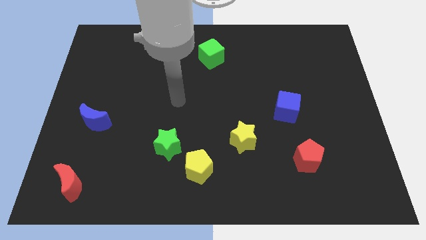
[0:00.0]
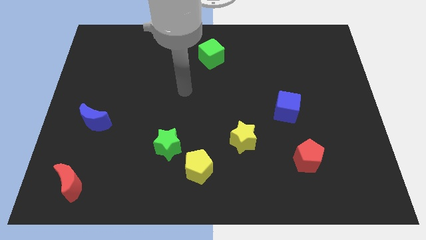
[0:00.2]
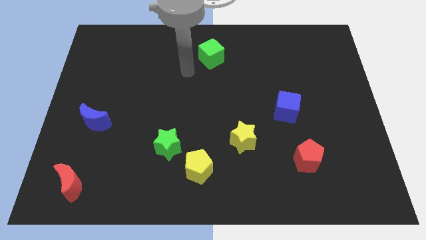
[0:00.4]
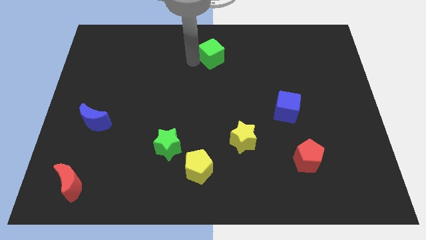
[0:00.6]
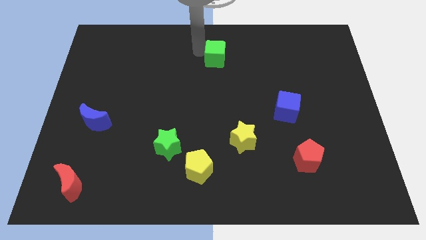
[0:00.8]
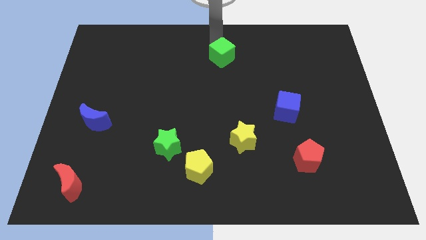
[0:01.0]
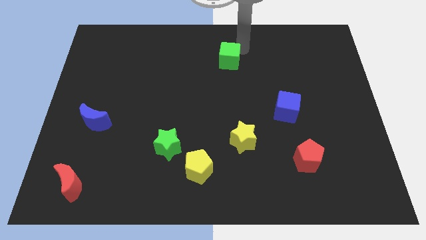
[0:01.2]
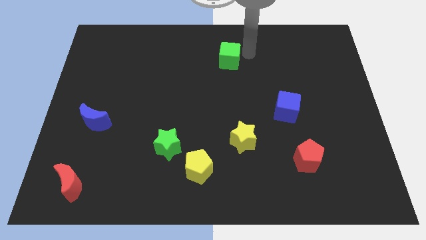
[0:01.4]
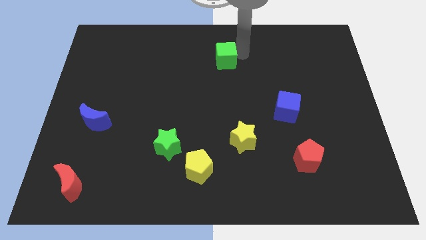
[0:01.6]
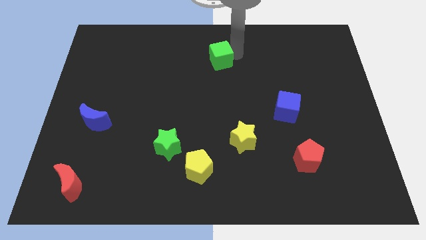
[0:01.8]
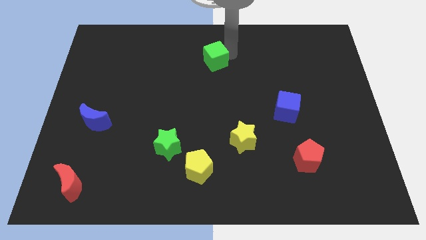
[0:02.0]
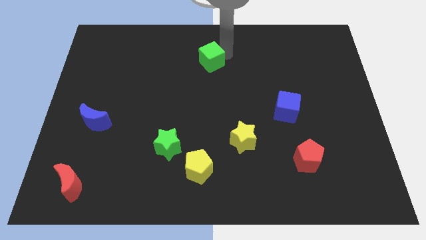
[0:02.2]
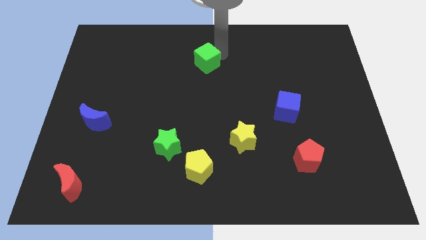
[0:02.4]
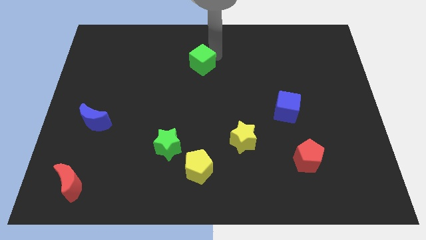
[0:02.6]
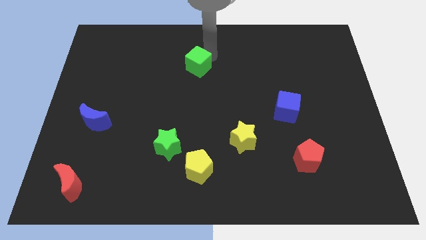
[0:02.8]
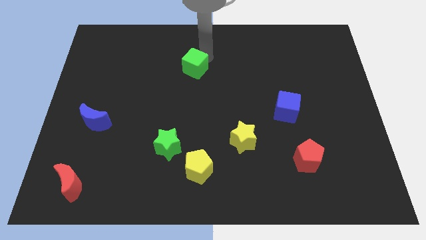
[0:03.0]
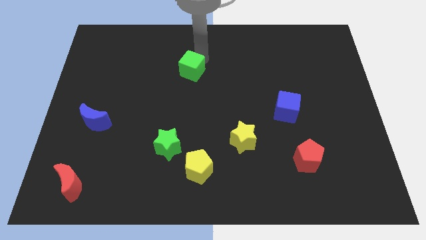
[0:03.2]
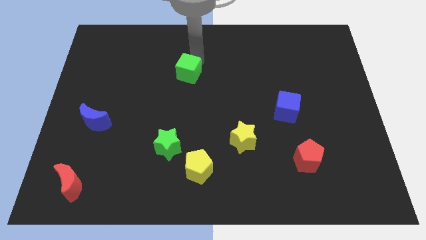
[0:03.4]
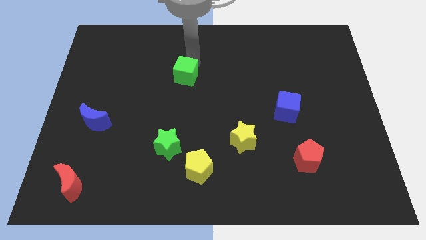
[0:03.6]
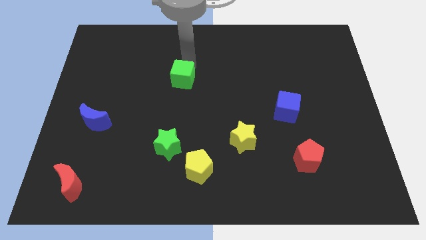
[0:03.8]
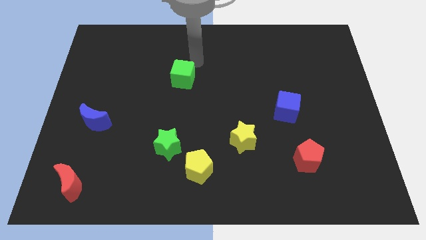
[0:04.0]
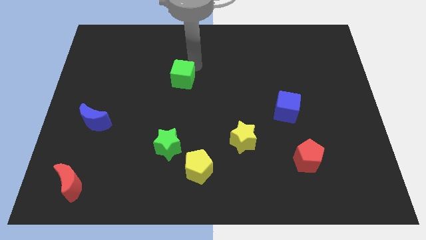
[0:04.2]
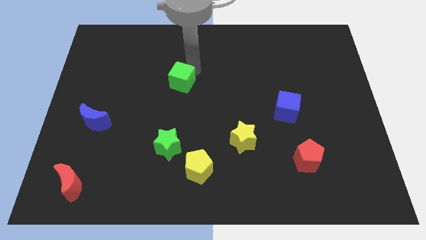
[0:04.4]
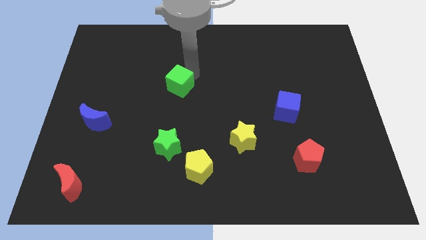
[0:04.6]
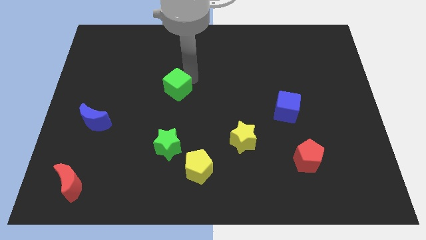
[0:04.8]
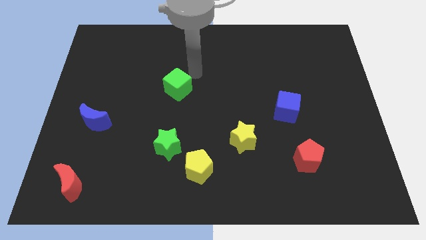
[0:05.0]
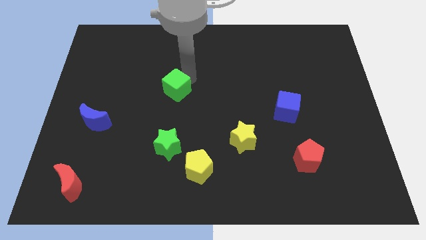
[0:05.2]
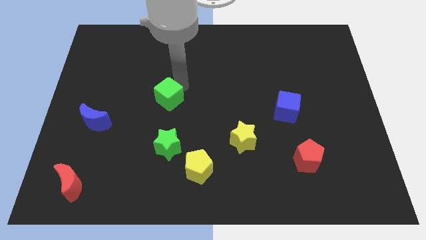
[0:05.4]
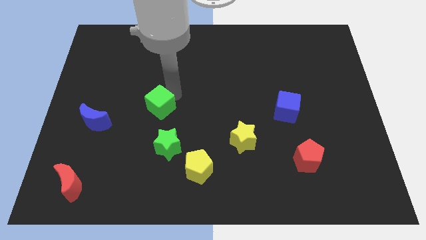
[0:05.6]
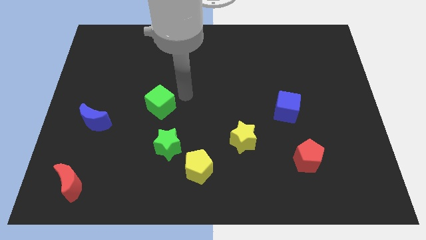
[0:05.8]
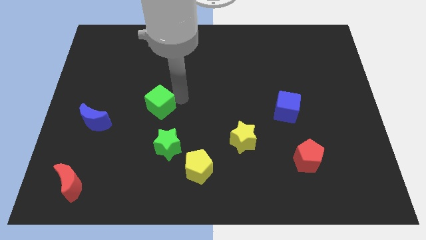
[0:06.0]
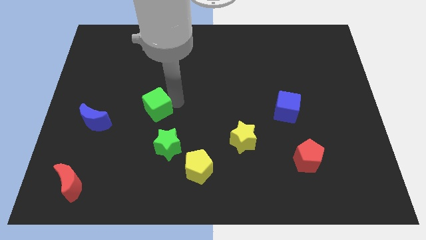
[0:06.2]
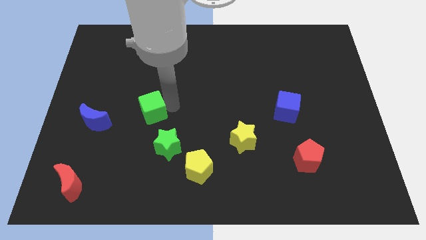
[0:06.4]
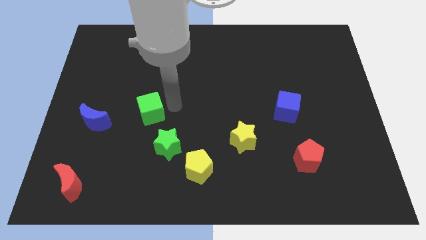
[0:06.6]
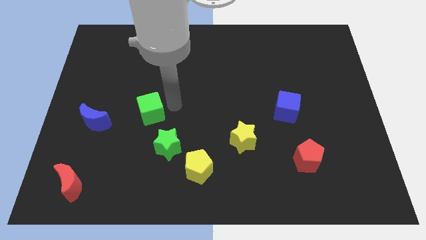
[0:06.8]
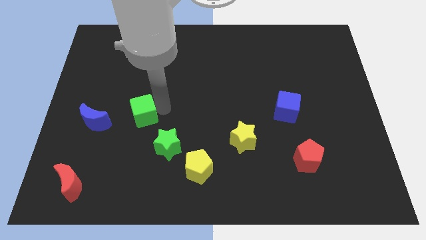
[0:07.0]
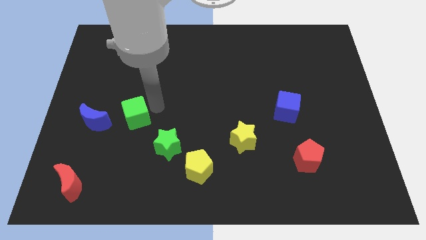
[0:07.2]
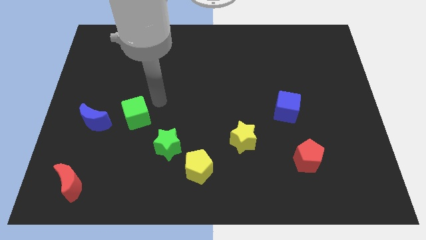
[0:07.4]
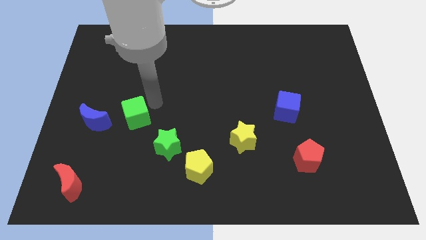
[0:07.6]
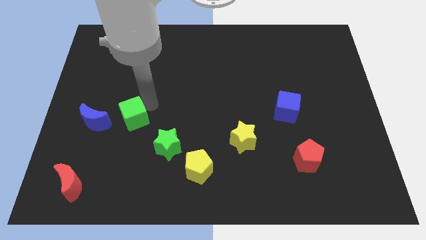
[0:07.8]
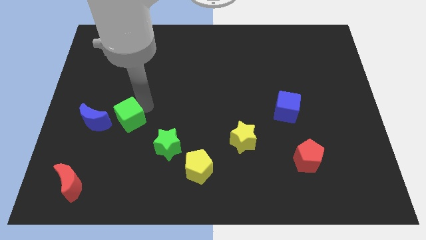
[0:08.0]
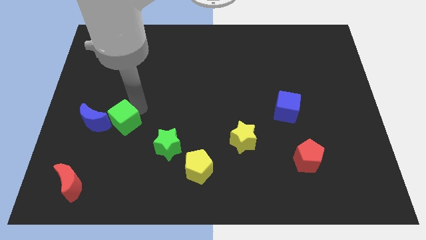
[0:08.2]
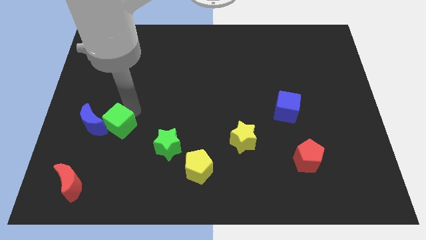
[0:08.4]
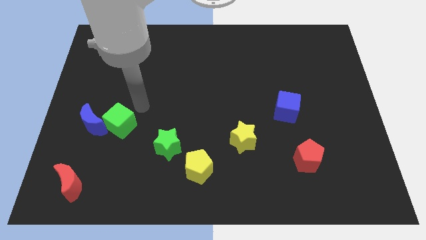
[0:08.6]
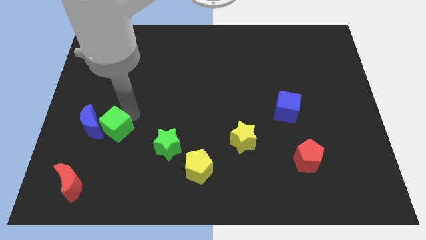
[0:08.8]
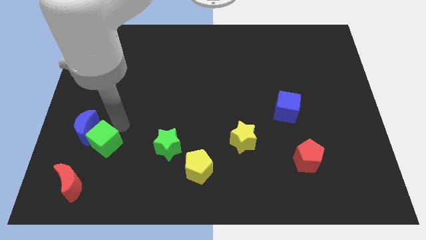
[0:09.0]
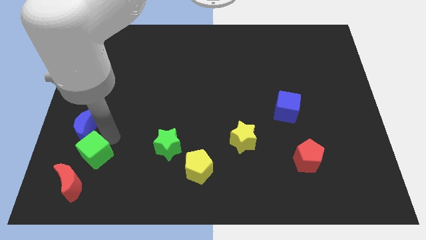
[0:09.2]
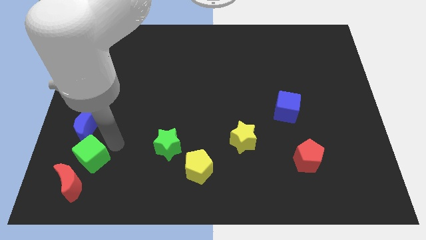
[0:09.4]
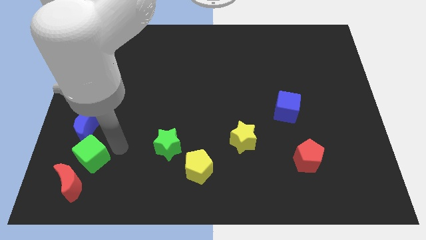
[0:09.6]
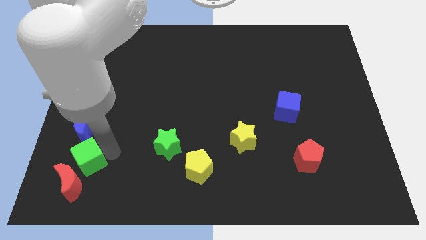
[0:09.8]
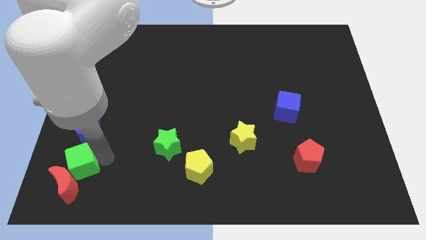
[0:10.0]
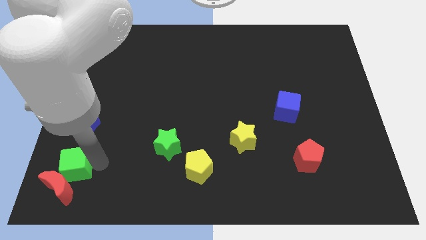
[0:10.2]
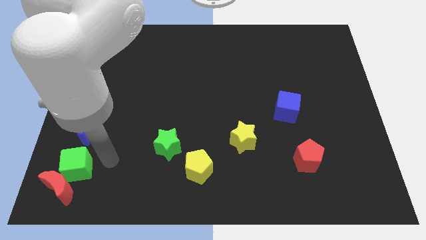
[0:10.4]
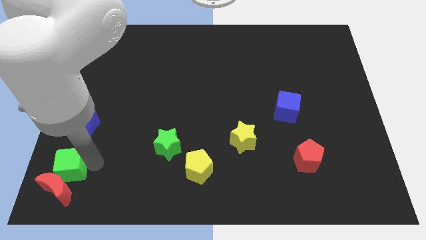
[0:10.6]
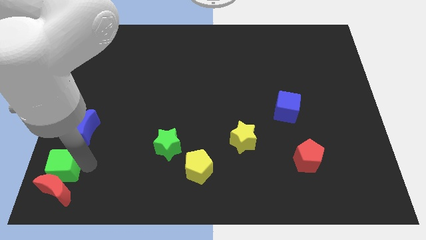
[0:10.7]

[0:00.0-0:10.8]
put the green cube to the bottom left corner

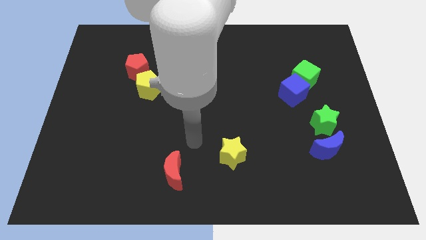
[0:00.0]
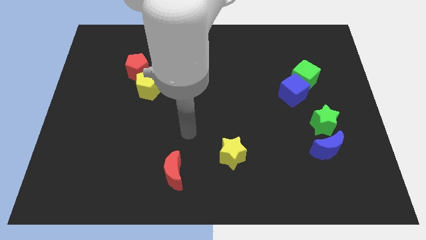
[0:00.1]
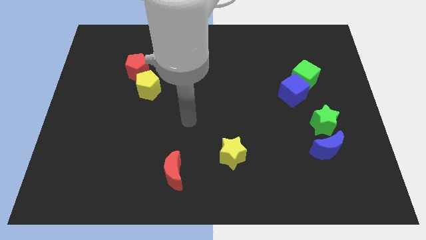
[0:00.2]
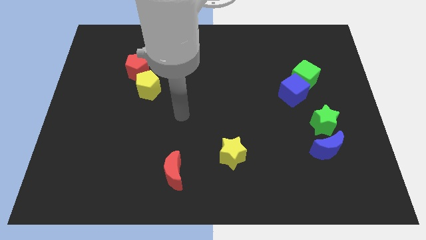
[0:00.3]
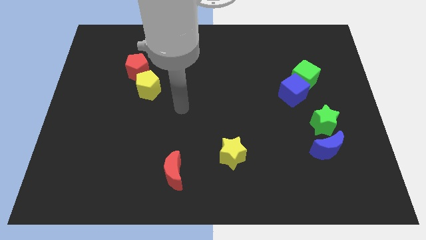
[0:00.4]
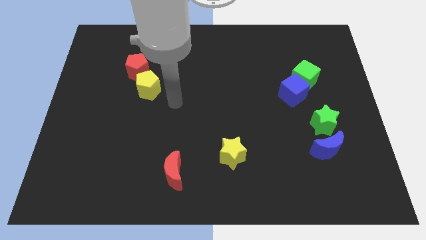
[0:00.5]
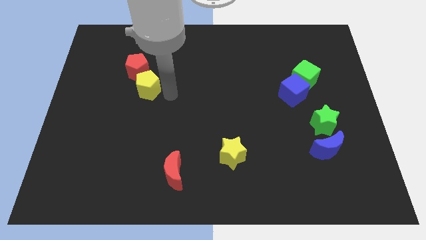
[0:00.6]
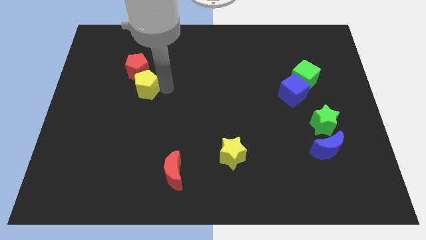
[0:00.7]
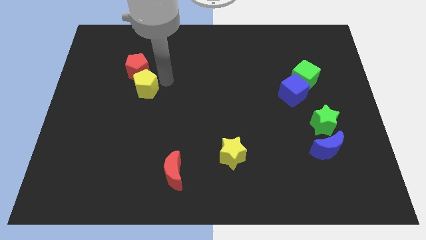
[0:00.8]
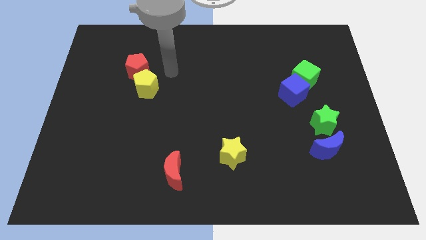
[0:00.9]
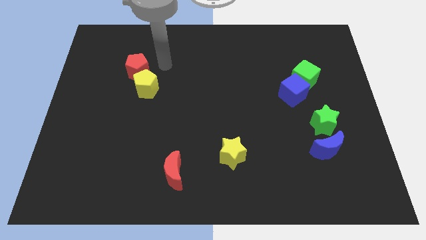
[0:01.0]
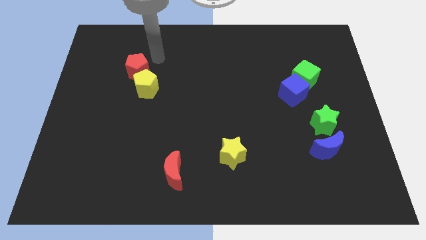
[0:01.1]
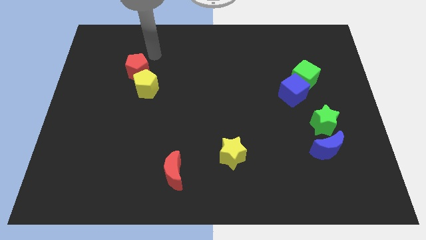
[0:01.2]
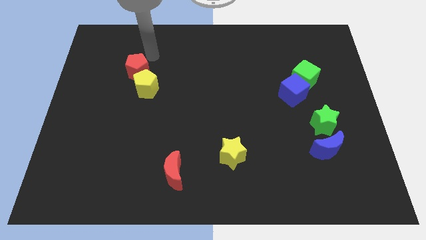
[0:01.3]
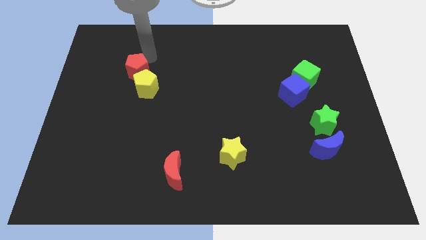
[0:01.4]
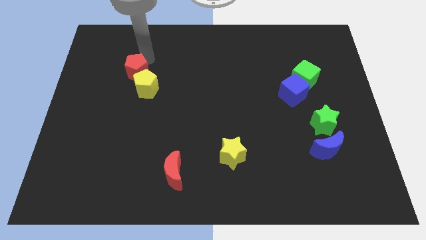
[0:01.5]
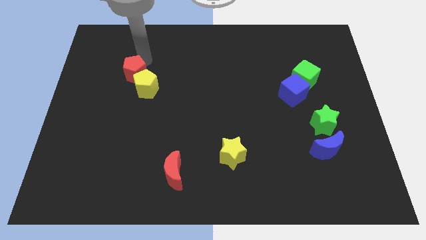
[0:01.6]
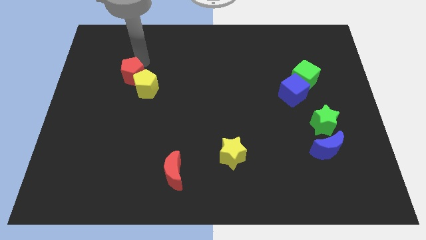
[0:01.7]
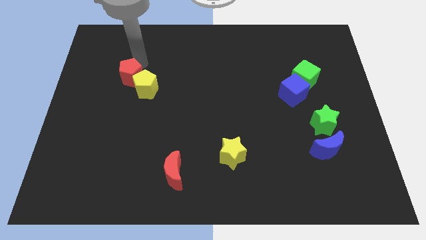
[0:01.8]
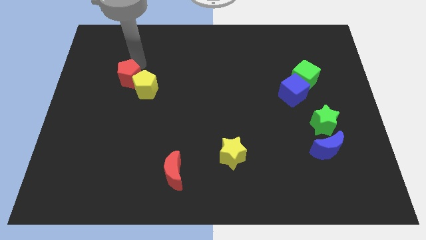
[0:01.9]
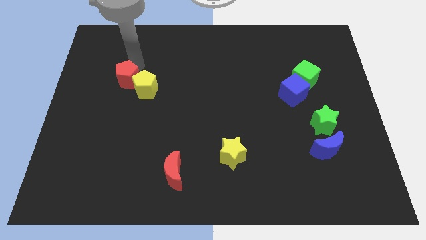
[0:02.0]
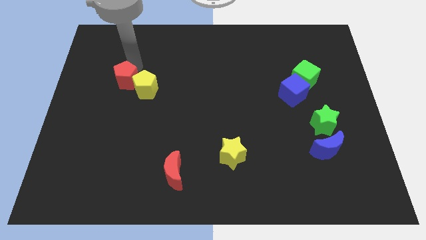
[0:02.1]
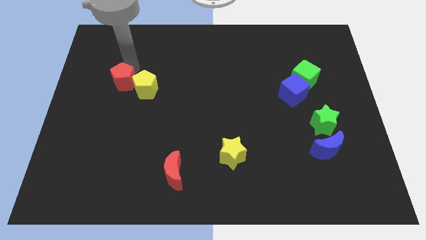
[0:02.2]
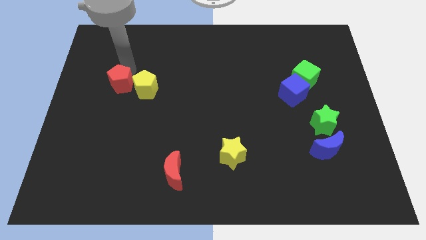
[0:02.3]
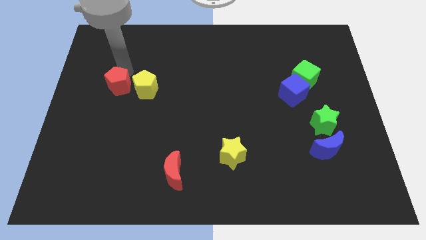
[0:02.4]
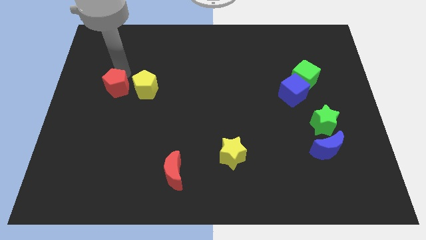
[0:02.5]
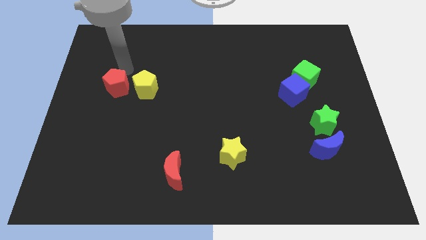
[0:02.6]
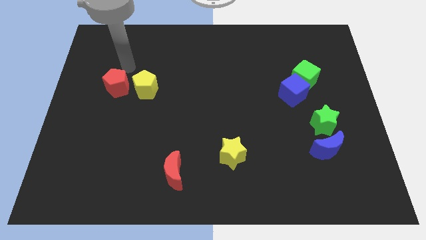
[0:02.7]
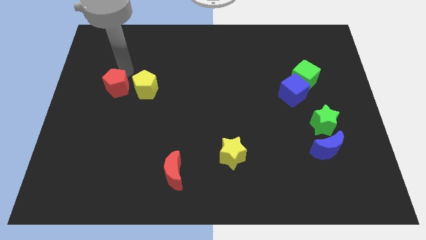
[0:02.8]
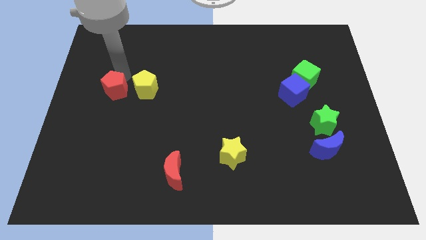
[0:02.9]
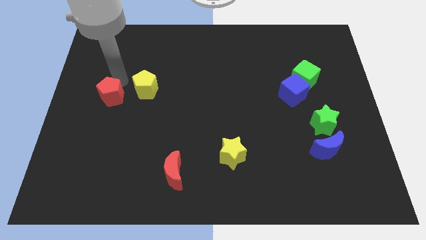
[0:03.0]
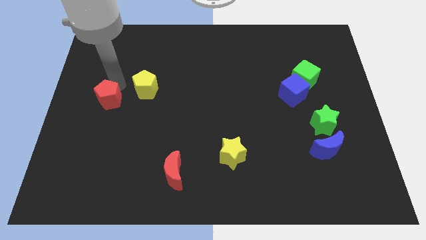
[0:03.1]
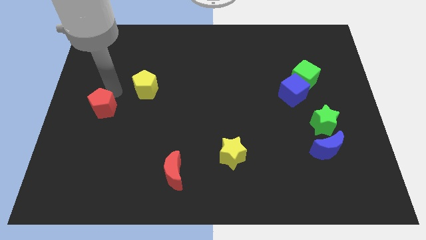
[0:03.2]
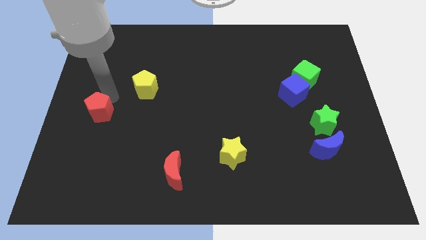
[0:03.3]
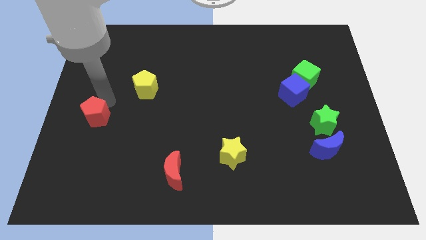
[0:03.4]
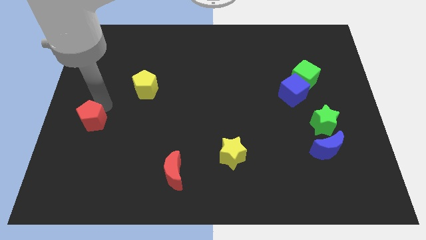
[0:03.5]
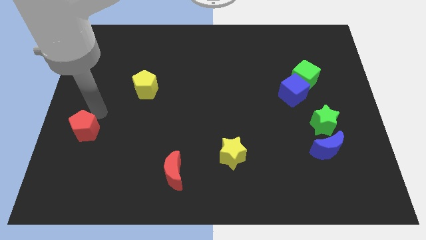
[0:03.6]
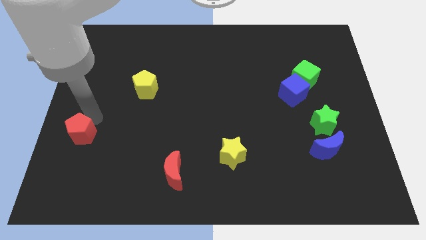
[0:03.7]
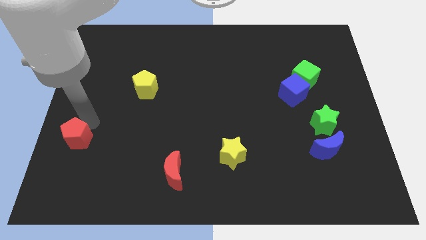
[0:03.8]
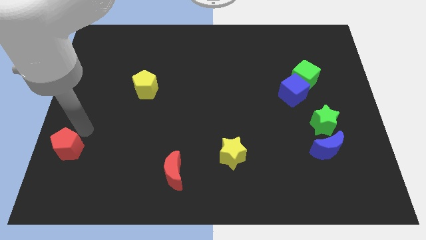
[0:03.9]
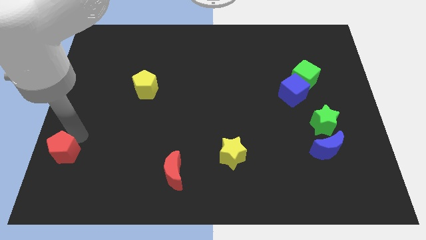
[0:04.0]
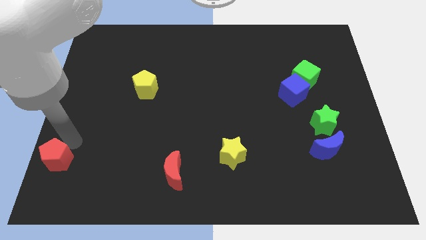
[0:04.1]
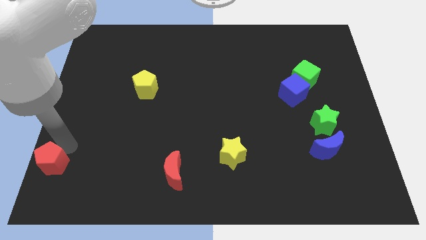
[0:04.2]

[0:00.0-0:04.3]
push the red pentagon to the bottom left
